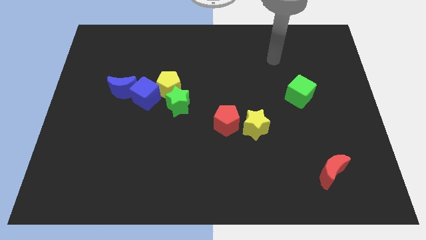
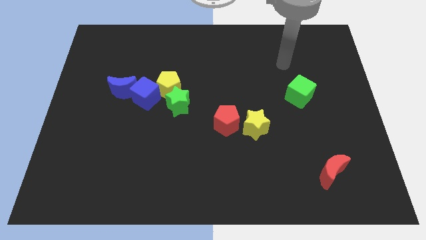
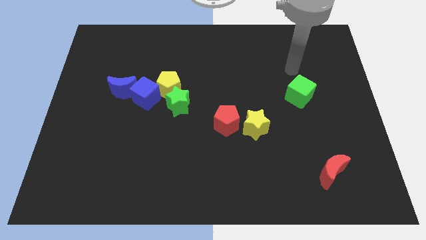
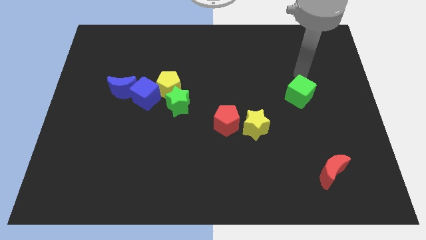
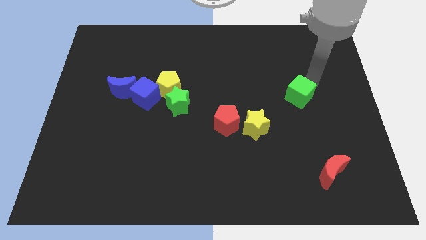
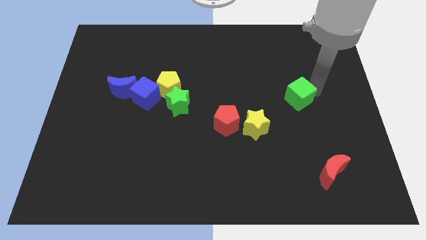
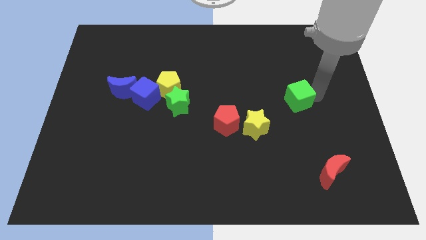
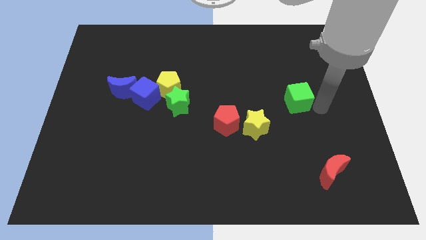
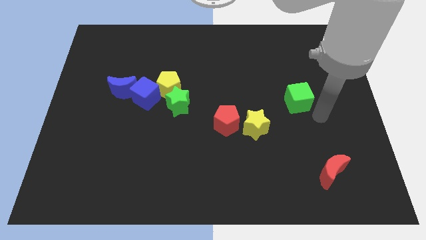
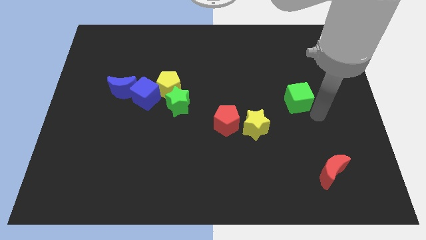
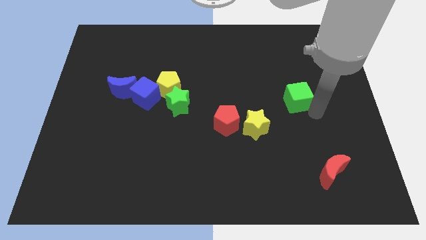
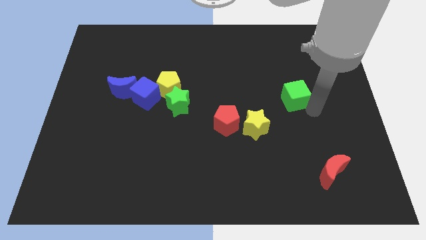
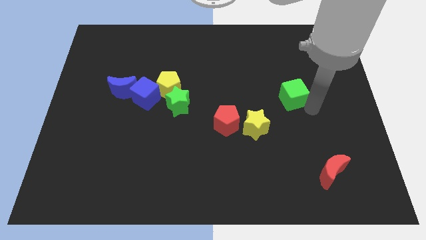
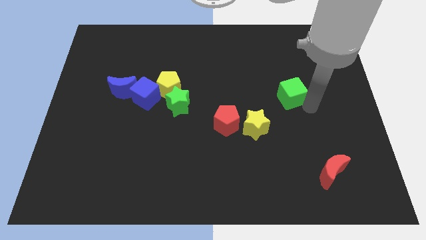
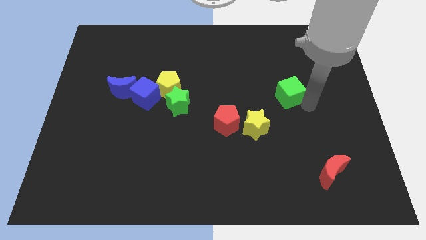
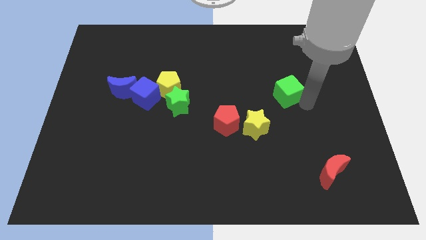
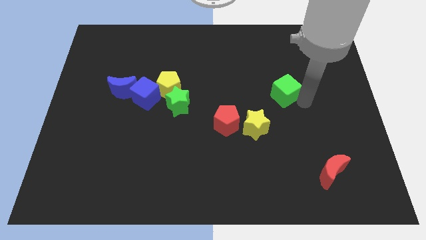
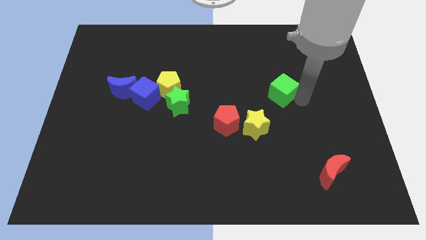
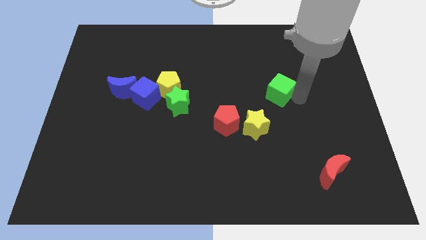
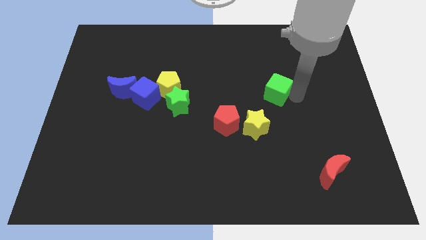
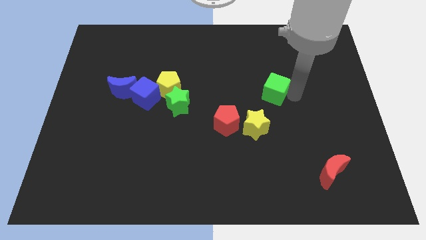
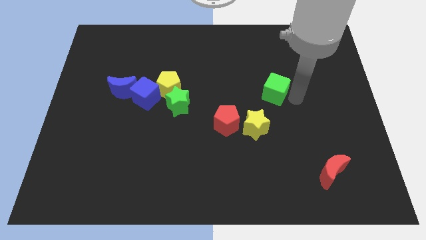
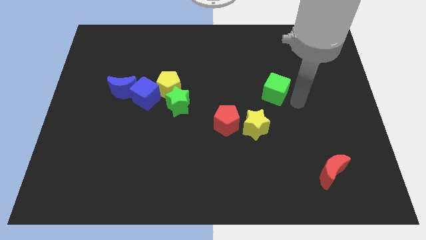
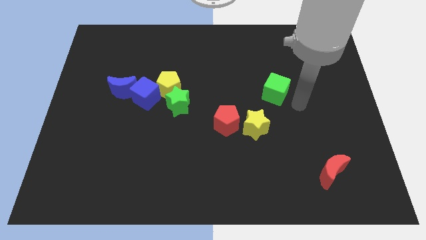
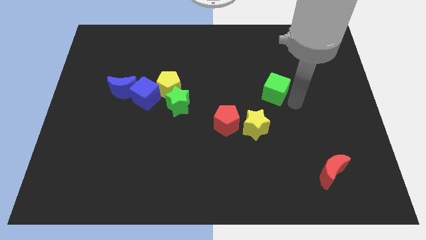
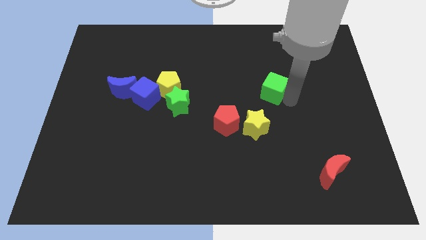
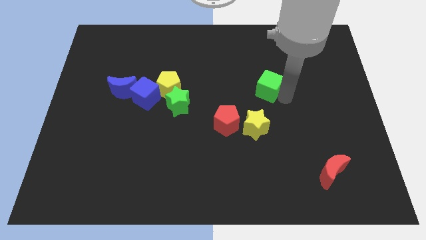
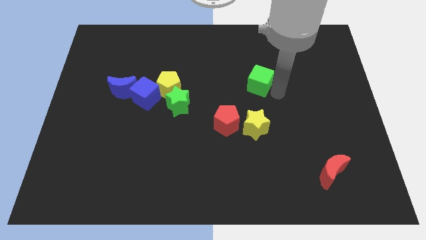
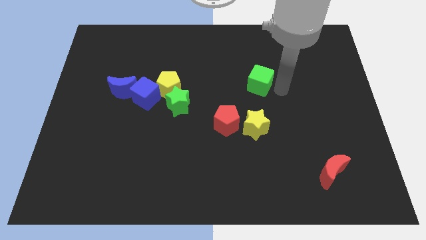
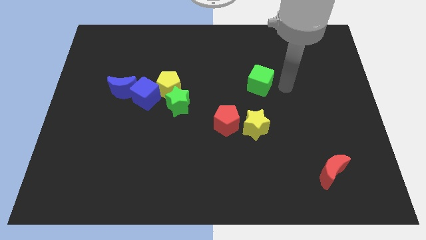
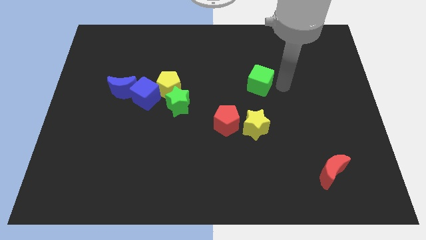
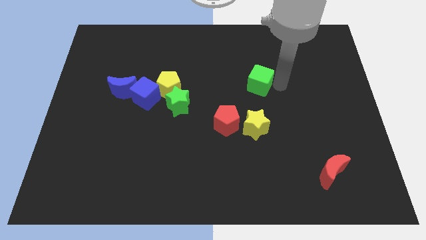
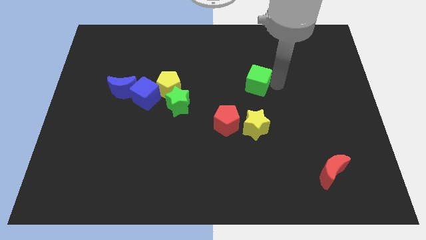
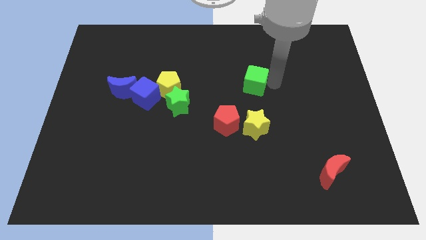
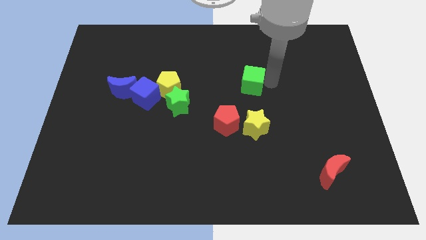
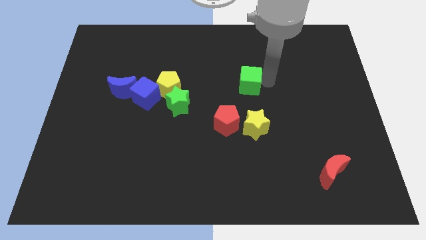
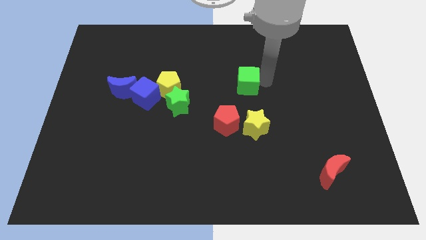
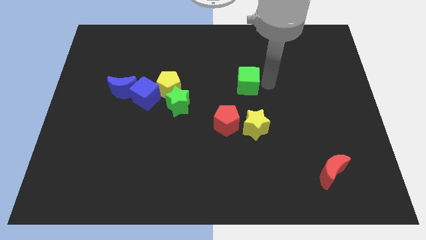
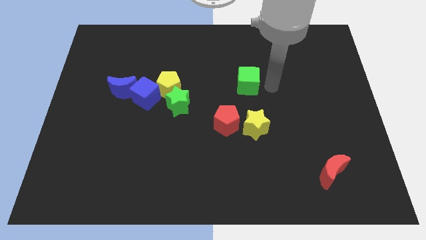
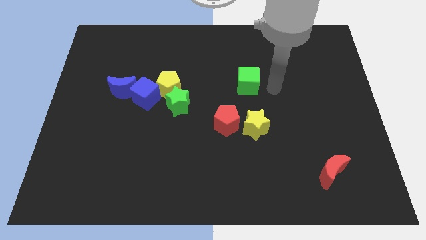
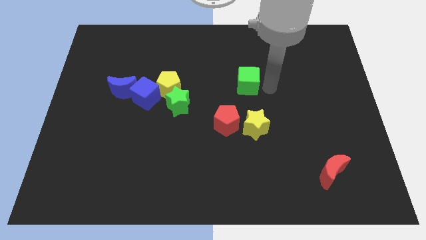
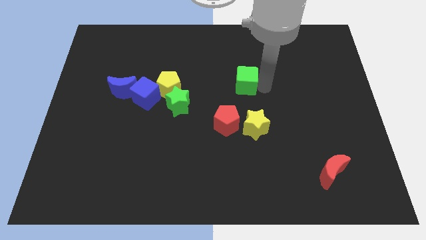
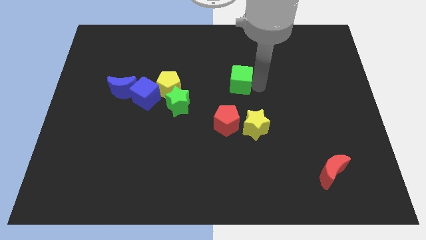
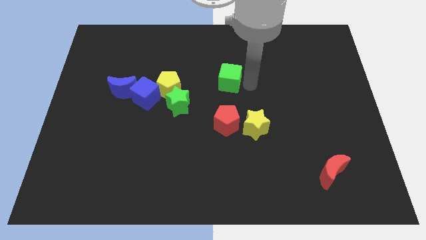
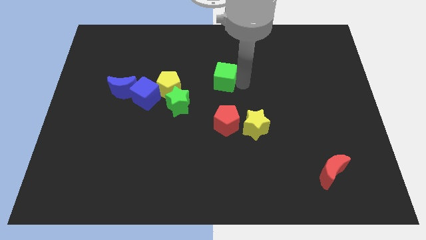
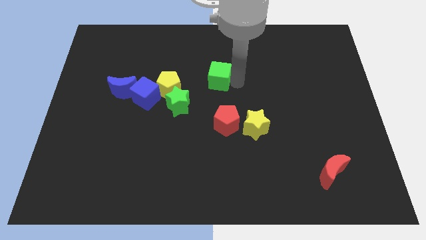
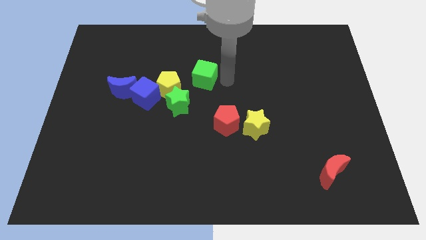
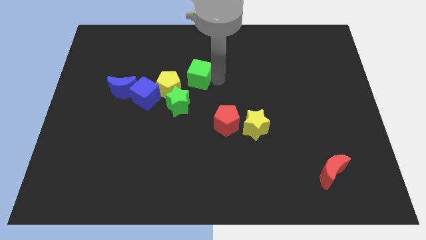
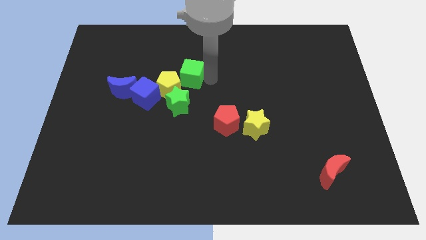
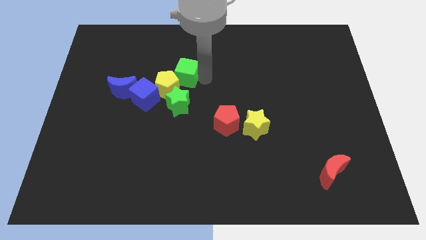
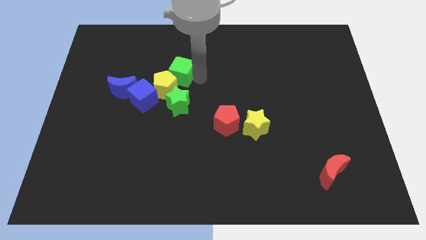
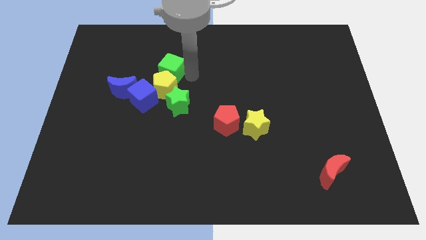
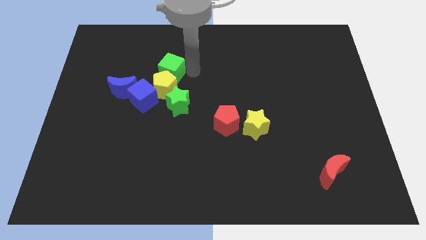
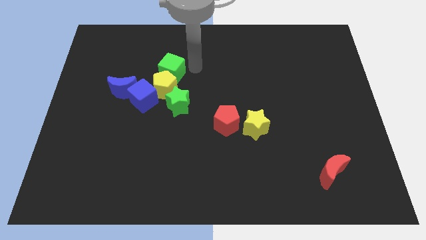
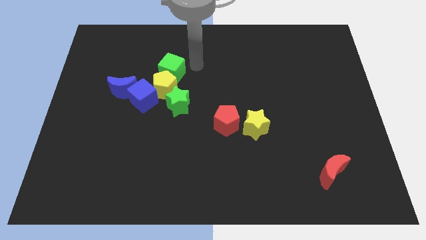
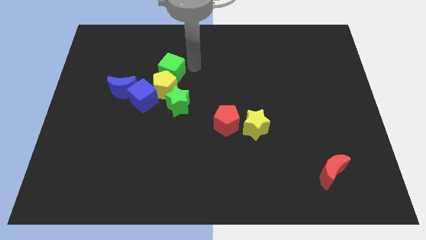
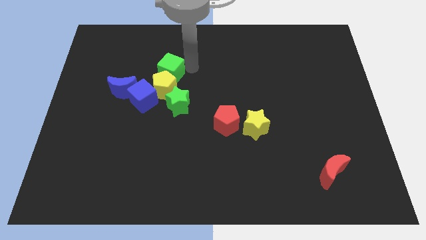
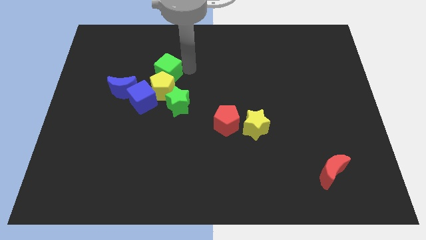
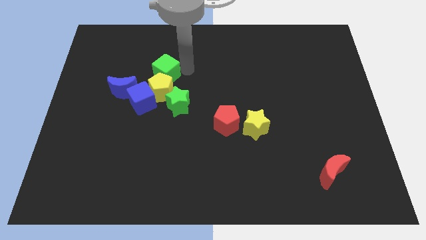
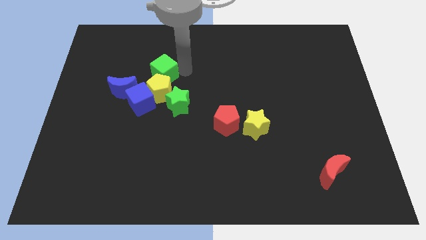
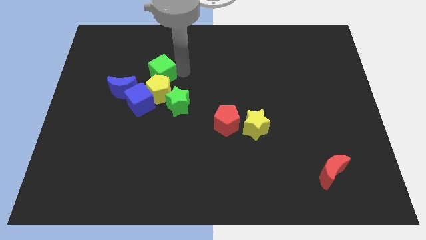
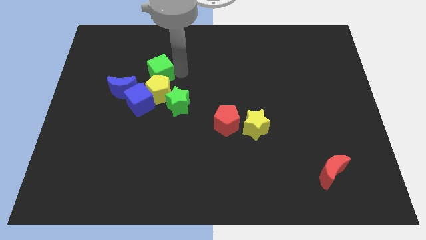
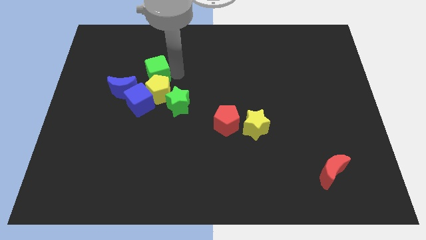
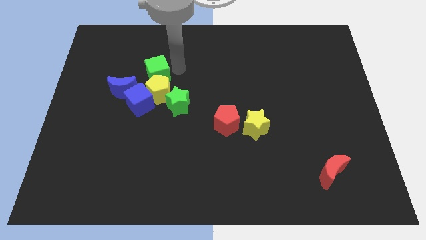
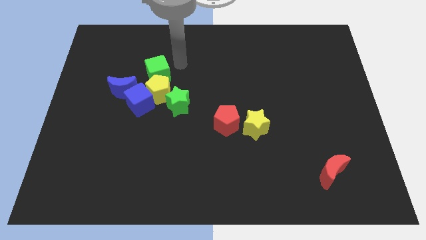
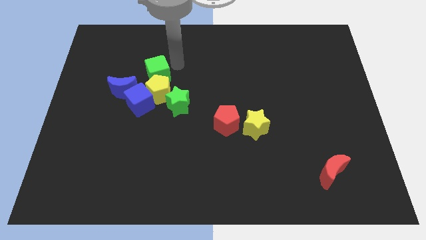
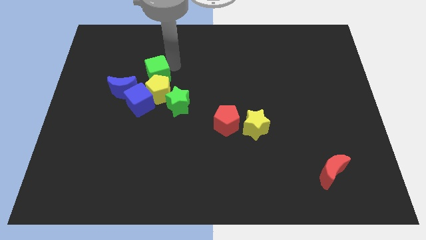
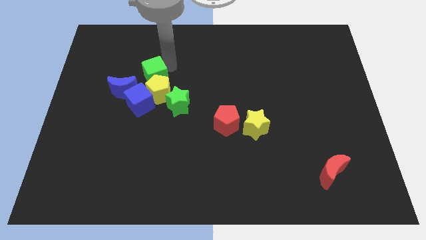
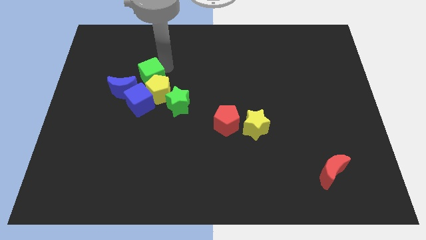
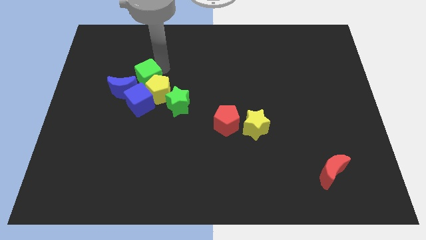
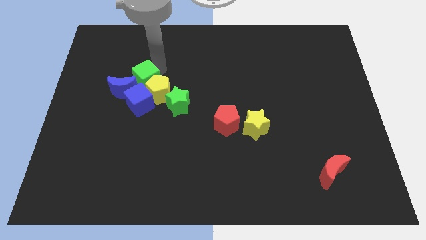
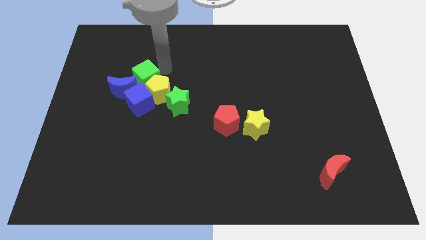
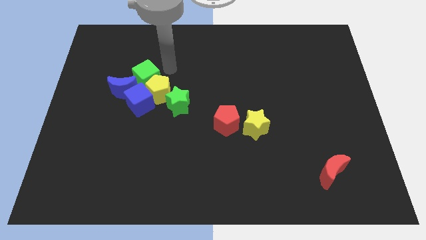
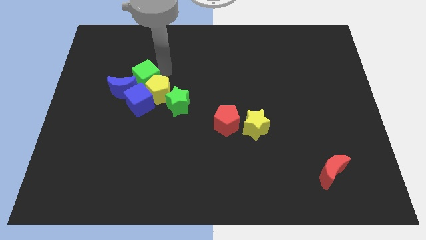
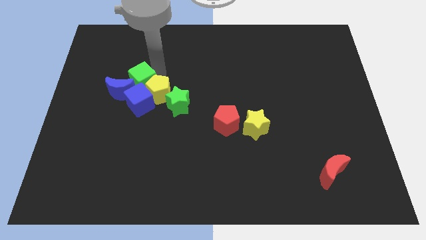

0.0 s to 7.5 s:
move the green cube next to the blue moon
